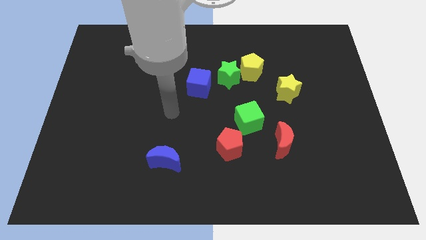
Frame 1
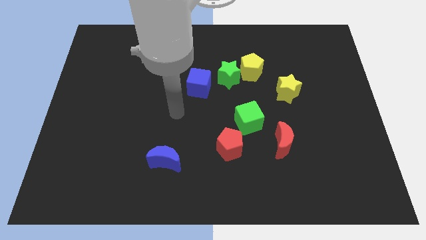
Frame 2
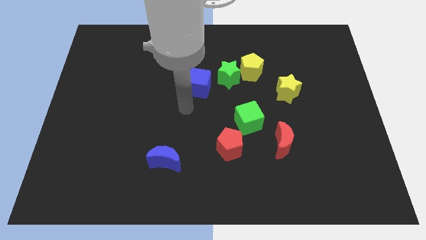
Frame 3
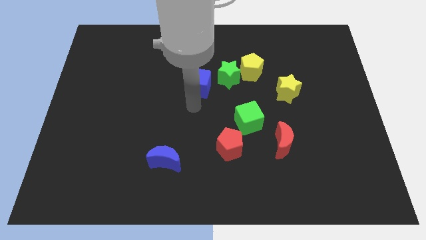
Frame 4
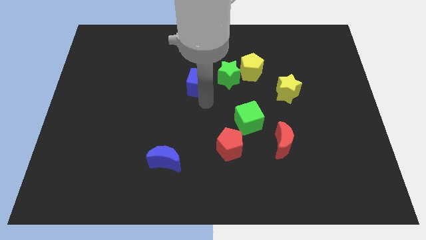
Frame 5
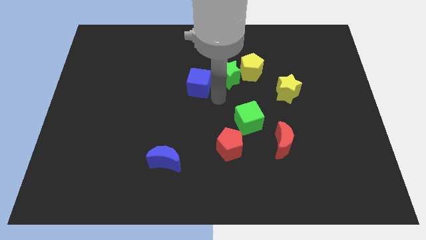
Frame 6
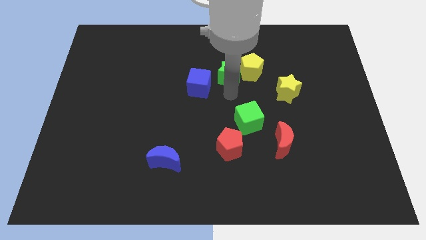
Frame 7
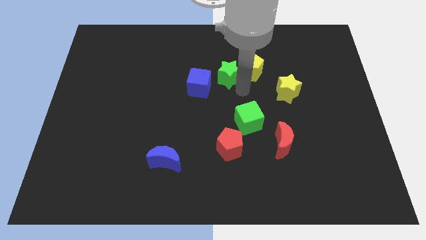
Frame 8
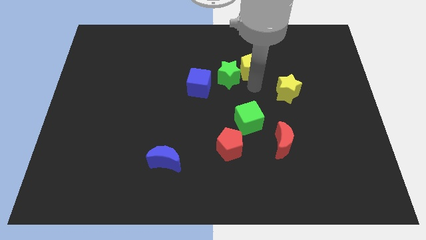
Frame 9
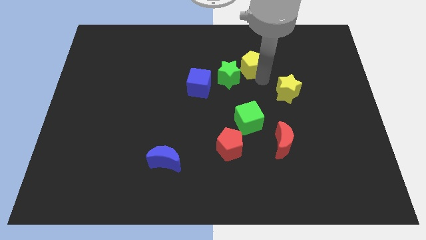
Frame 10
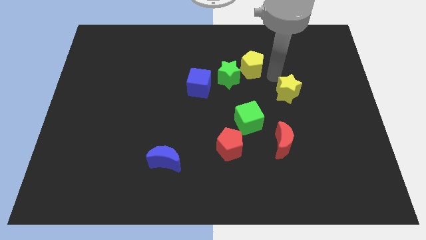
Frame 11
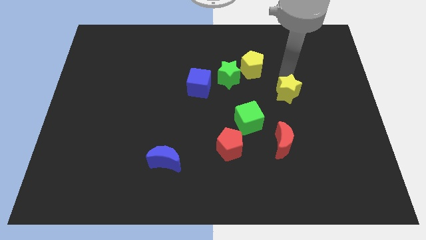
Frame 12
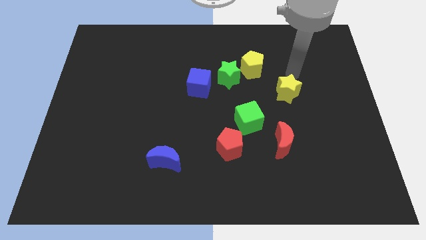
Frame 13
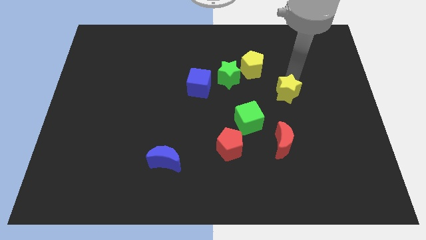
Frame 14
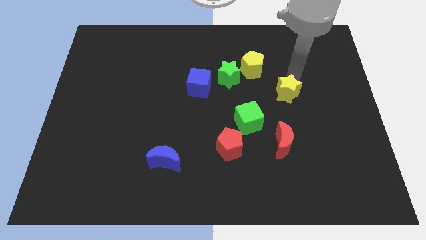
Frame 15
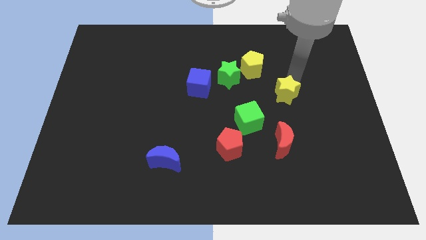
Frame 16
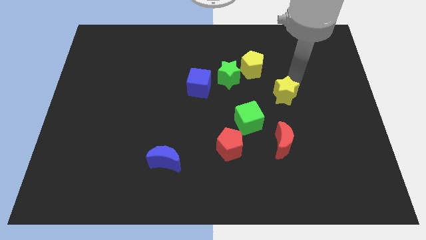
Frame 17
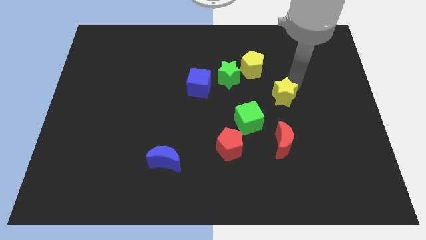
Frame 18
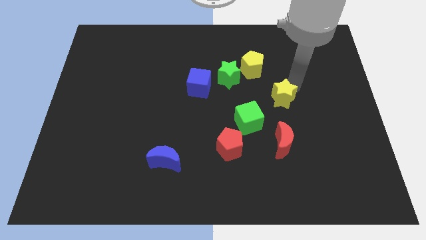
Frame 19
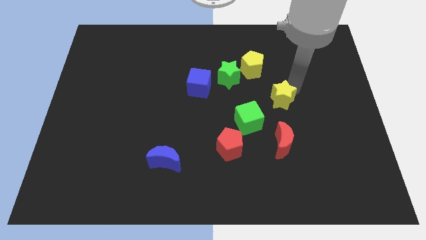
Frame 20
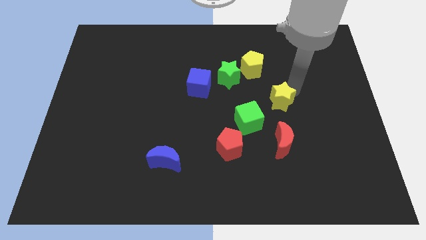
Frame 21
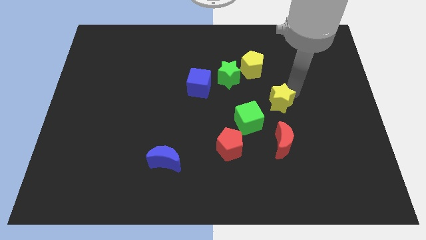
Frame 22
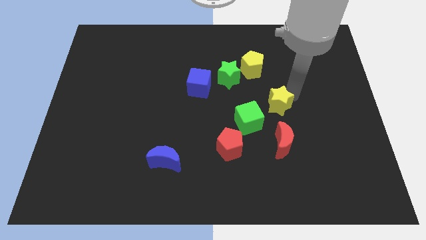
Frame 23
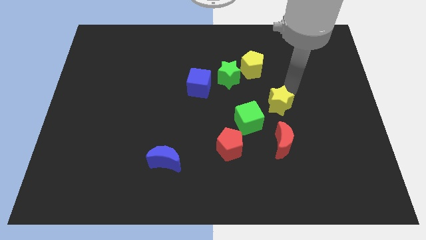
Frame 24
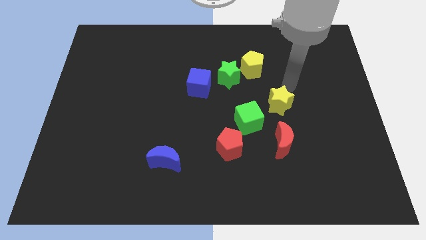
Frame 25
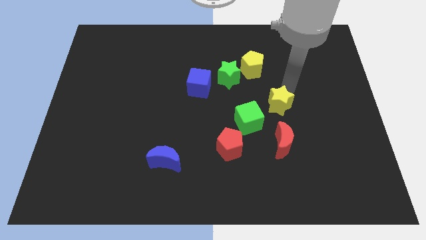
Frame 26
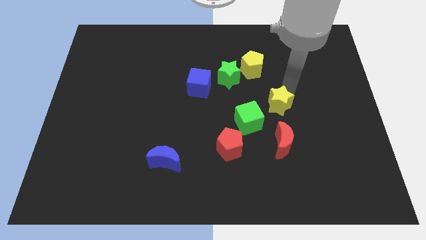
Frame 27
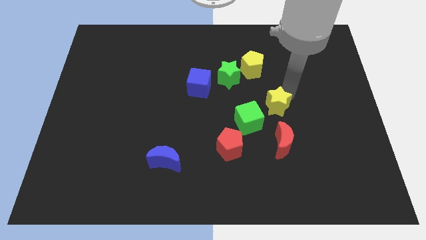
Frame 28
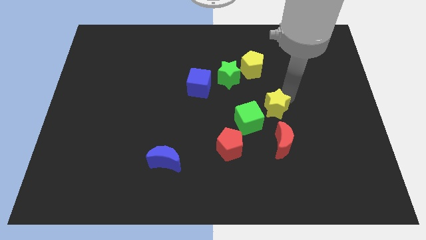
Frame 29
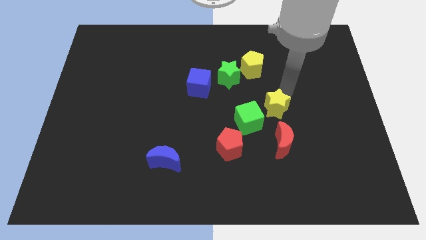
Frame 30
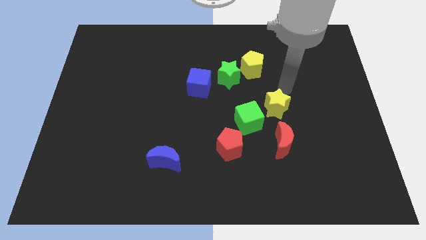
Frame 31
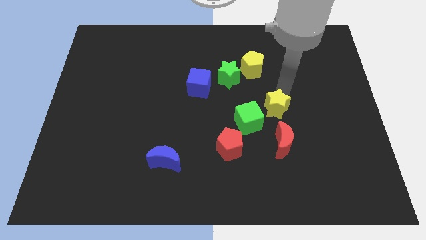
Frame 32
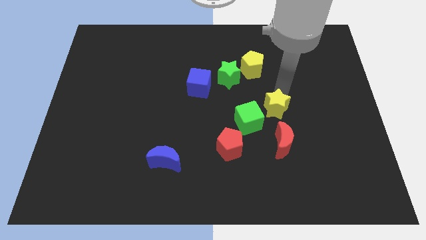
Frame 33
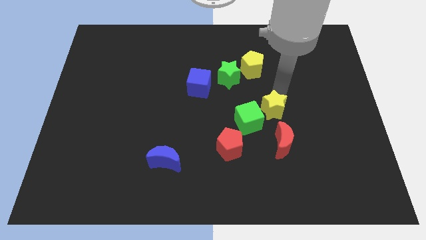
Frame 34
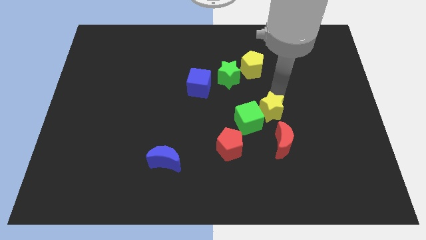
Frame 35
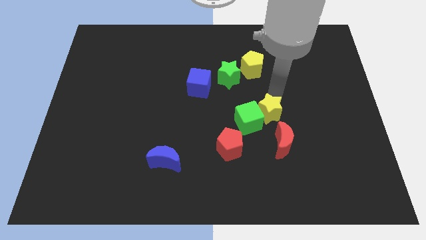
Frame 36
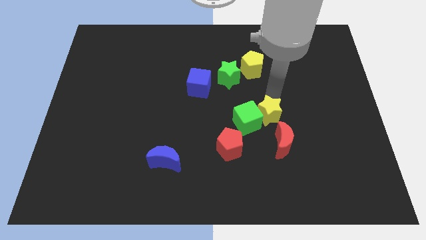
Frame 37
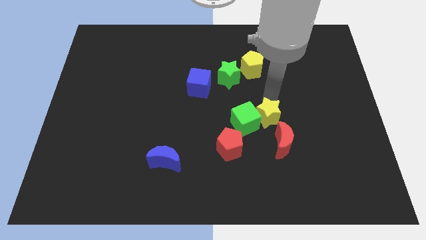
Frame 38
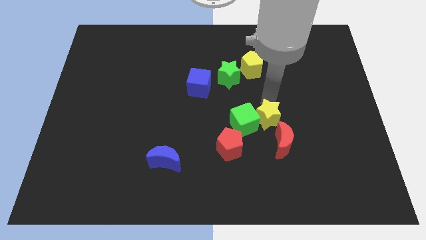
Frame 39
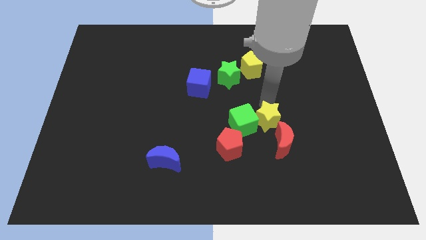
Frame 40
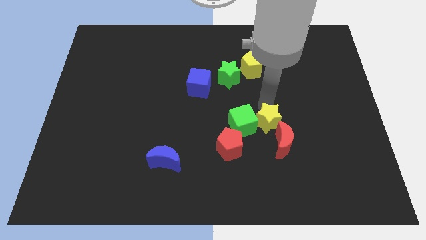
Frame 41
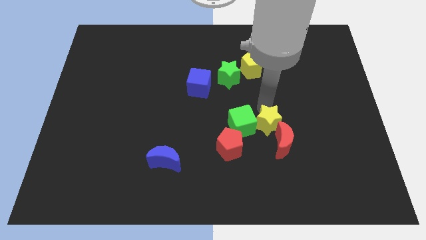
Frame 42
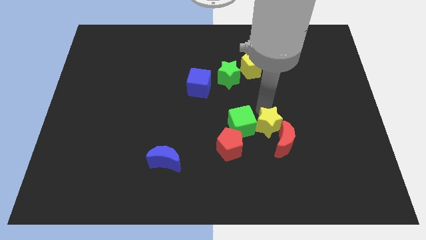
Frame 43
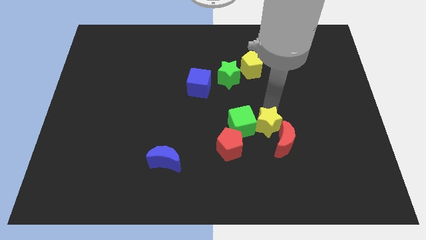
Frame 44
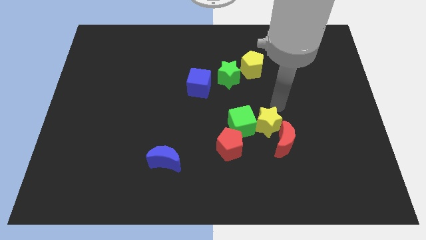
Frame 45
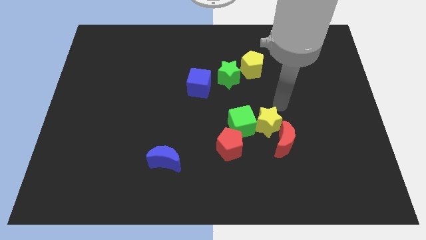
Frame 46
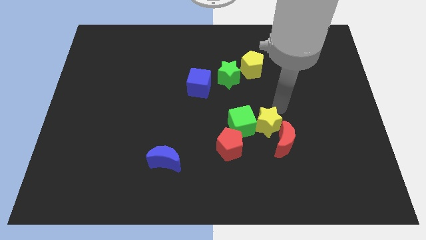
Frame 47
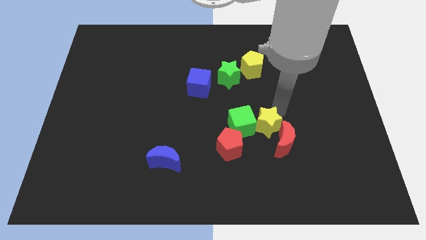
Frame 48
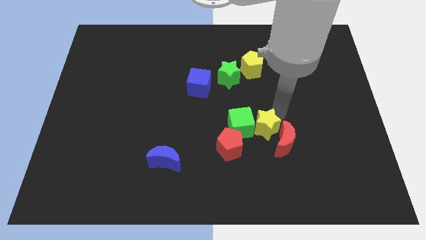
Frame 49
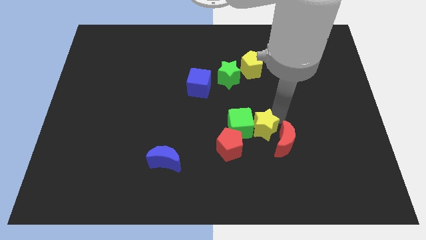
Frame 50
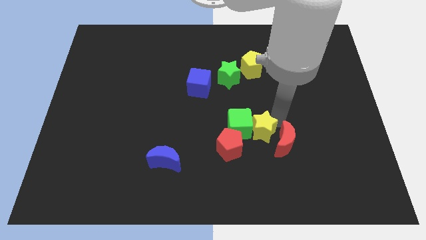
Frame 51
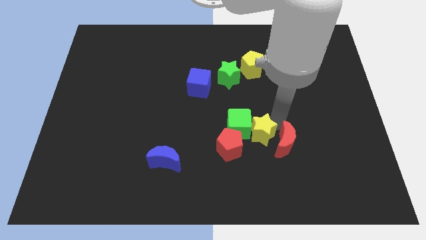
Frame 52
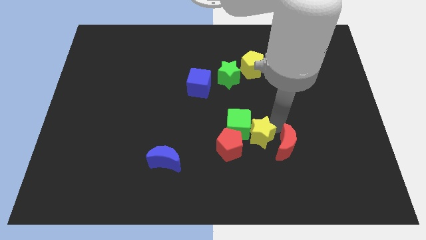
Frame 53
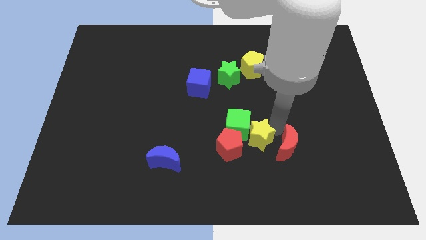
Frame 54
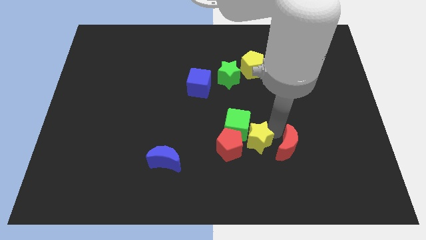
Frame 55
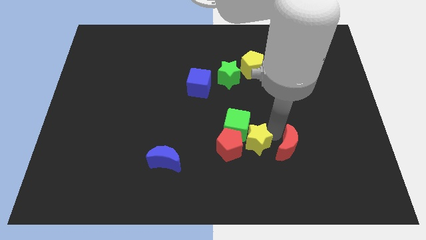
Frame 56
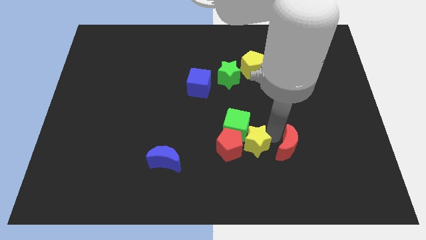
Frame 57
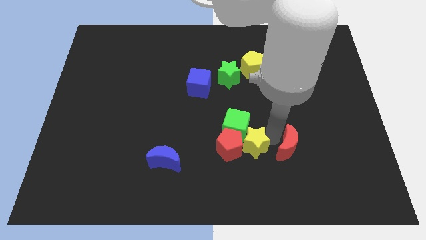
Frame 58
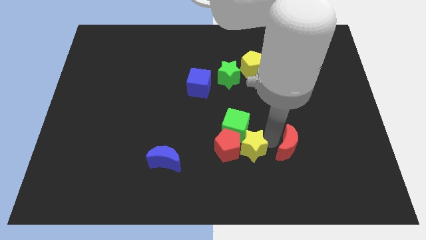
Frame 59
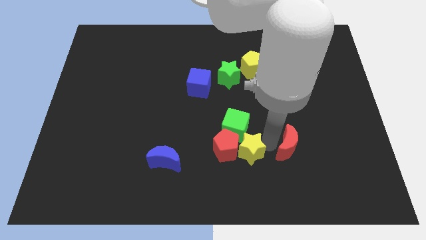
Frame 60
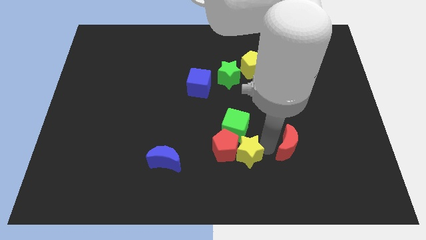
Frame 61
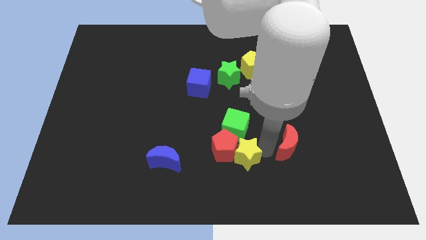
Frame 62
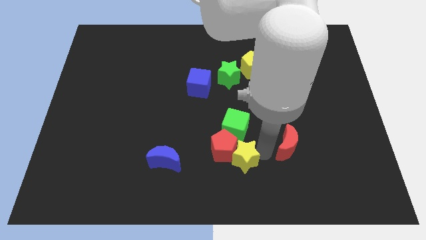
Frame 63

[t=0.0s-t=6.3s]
put the yellow star to the bottom
